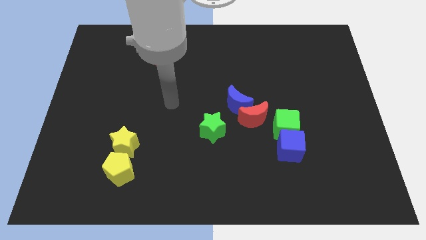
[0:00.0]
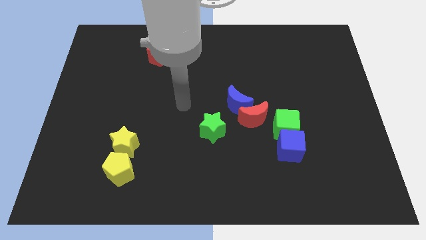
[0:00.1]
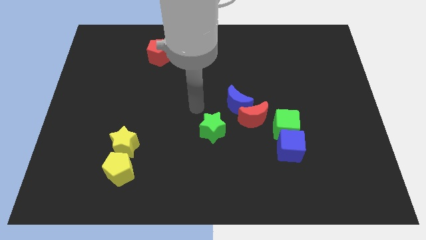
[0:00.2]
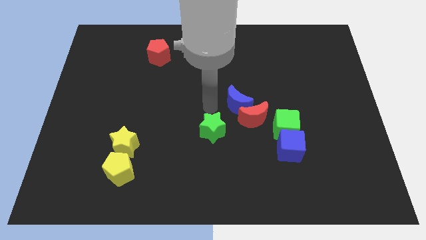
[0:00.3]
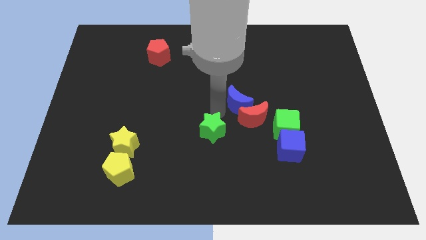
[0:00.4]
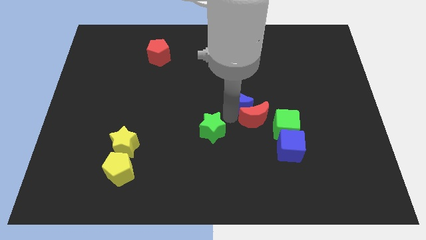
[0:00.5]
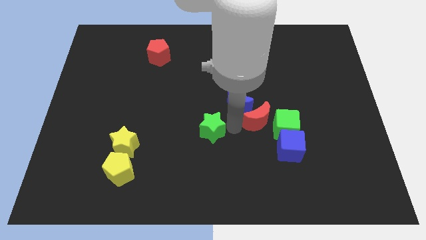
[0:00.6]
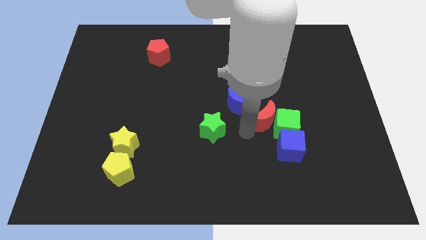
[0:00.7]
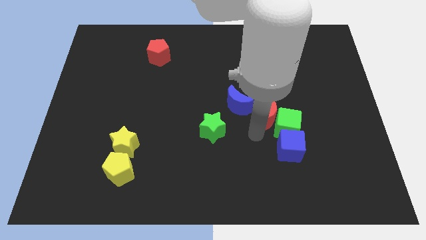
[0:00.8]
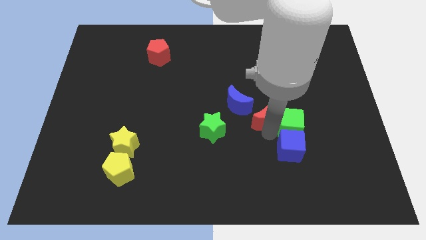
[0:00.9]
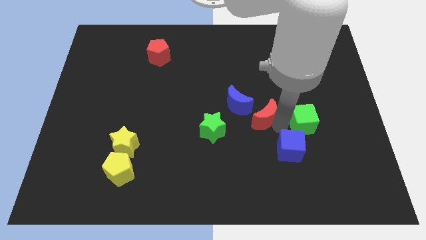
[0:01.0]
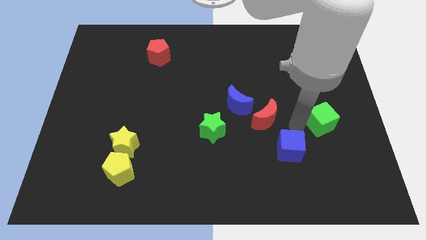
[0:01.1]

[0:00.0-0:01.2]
move the blue cube away from the green cube

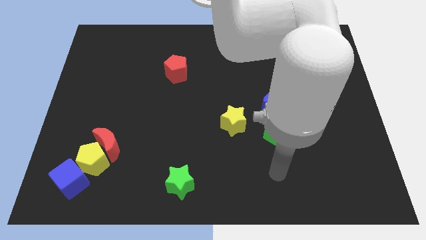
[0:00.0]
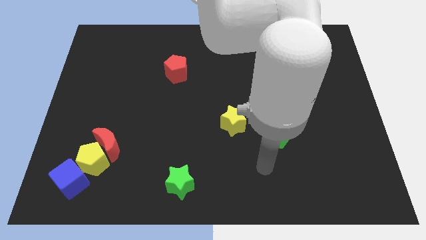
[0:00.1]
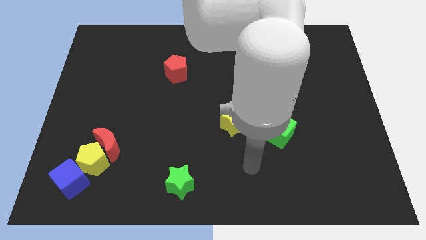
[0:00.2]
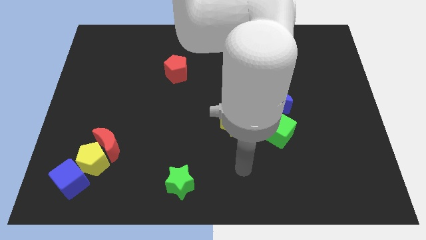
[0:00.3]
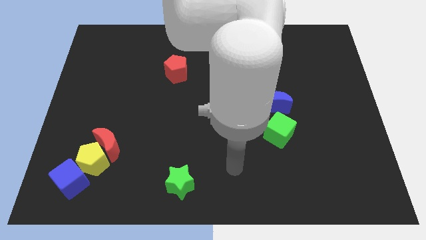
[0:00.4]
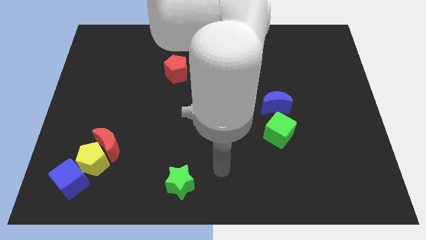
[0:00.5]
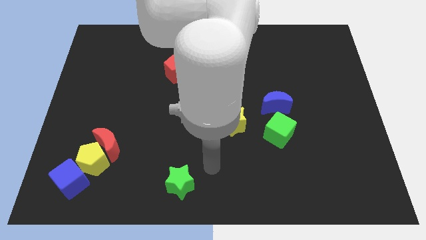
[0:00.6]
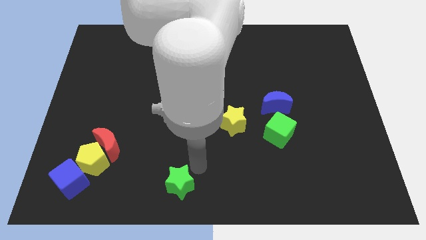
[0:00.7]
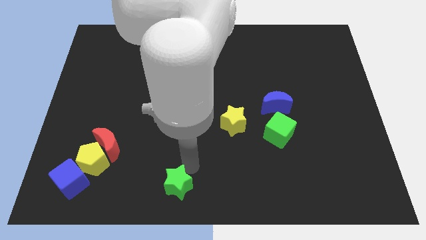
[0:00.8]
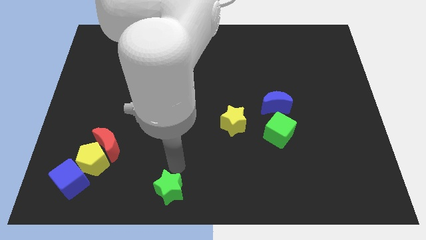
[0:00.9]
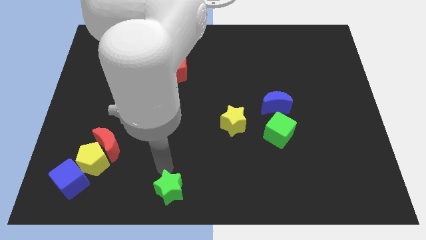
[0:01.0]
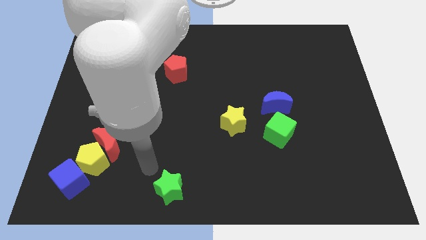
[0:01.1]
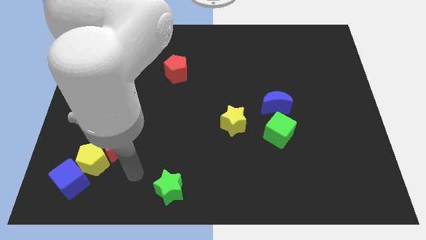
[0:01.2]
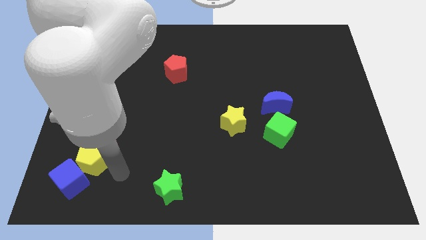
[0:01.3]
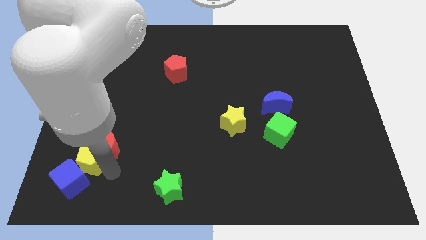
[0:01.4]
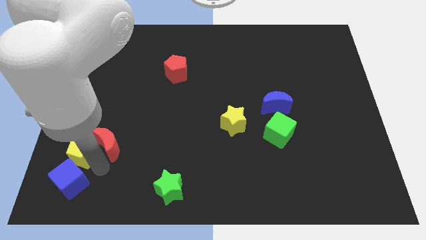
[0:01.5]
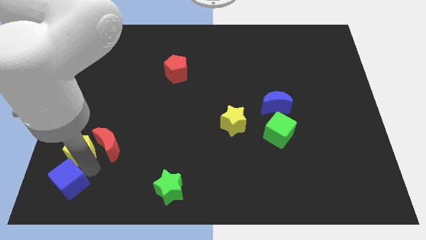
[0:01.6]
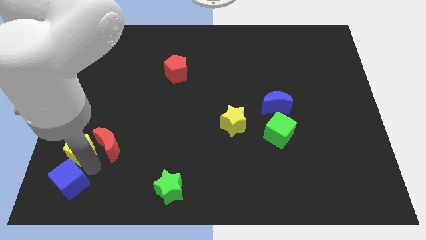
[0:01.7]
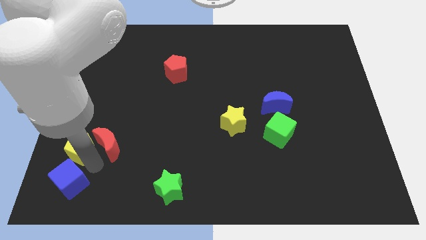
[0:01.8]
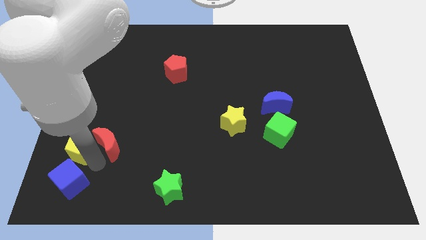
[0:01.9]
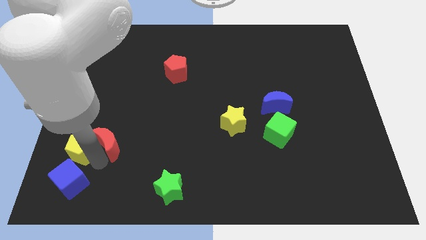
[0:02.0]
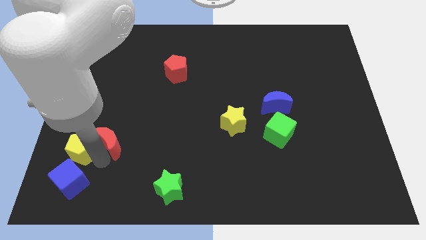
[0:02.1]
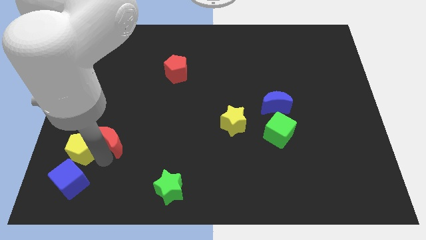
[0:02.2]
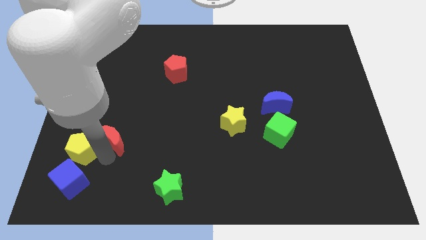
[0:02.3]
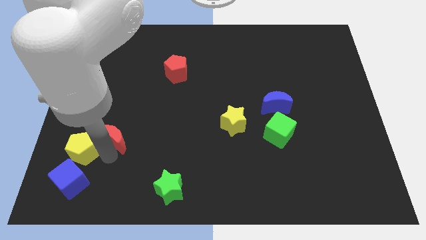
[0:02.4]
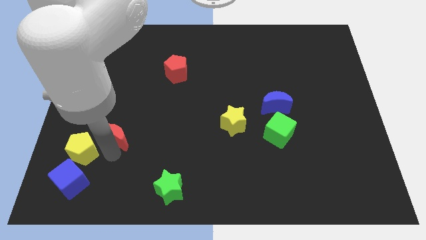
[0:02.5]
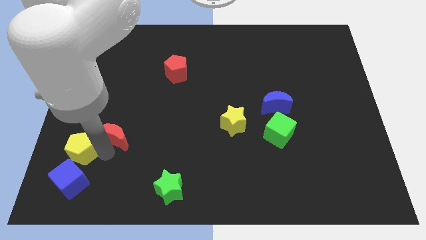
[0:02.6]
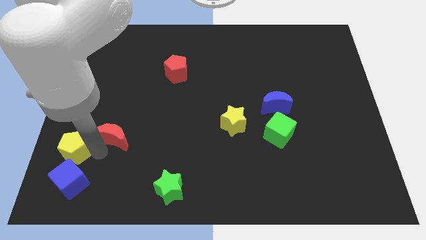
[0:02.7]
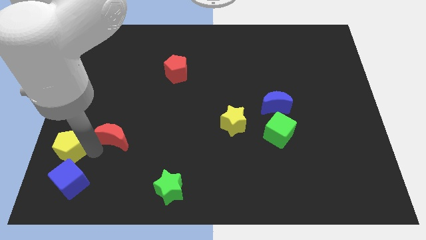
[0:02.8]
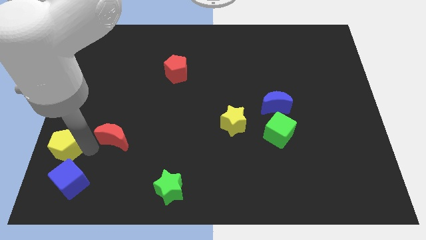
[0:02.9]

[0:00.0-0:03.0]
separate the red moon from the yellow pentagon

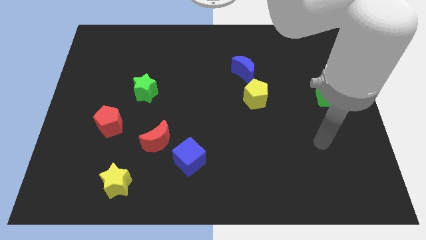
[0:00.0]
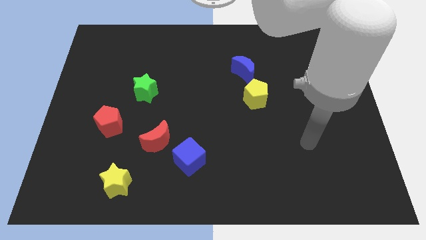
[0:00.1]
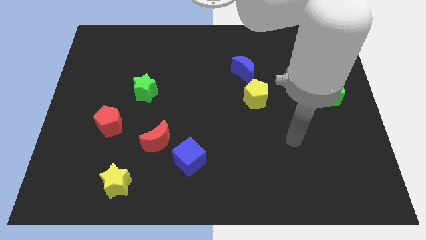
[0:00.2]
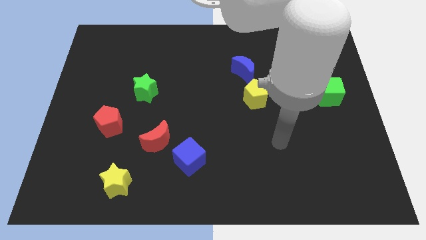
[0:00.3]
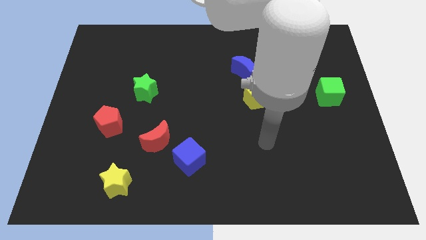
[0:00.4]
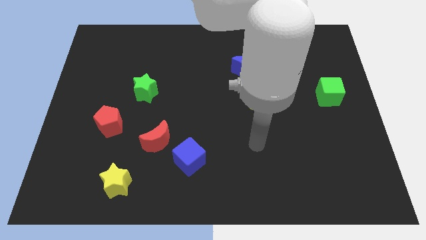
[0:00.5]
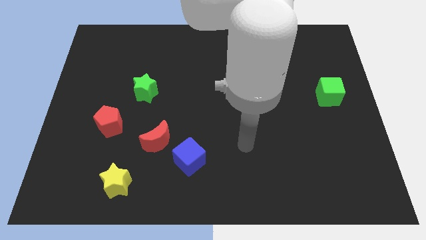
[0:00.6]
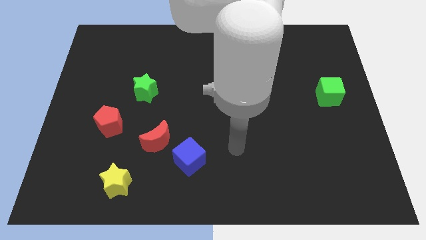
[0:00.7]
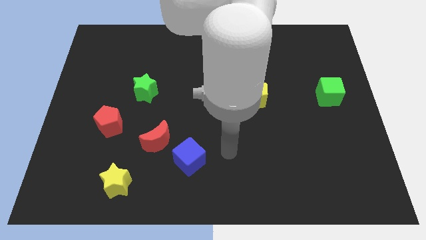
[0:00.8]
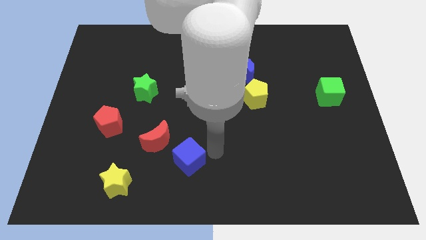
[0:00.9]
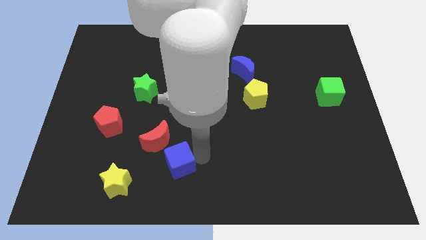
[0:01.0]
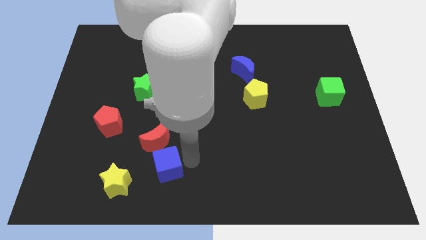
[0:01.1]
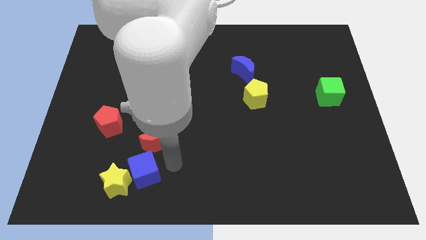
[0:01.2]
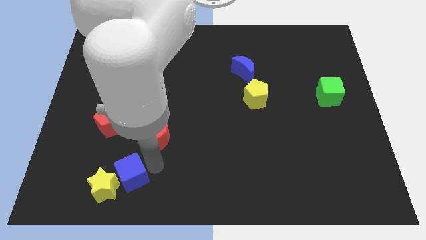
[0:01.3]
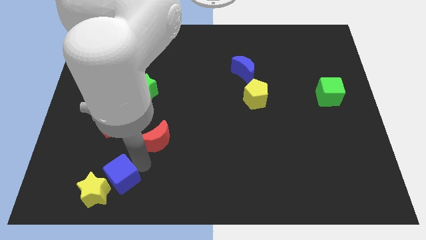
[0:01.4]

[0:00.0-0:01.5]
separate the red moon from the blue cube

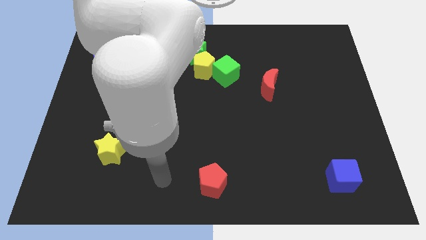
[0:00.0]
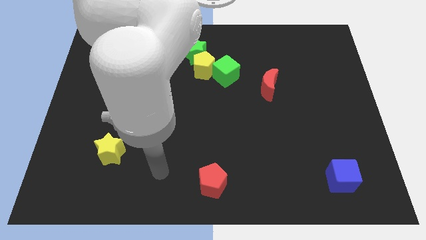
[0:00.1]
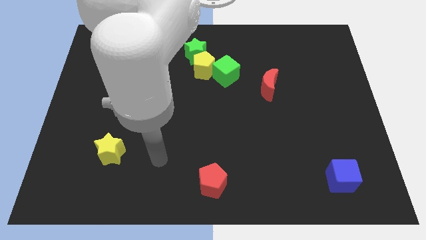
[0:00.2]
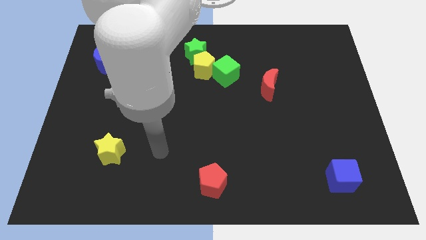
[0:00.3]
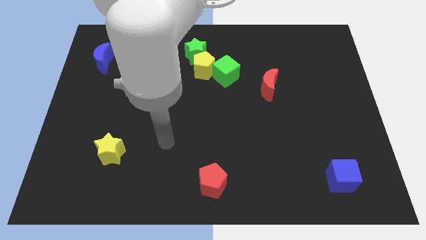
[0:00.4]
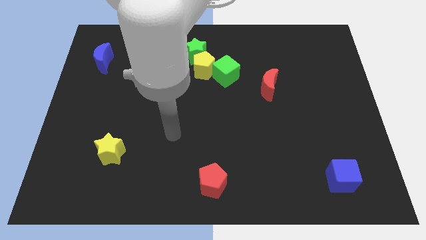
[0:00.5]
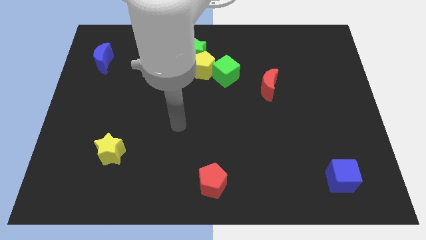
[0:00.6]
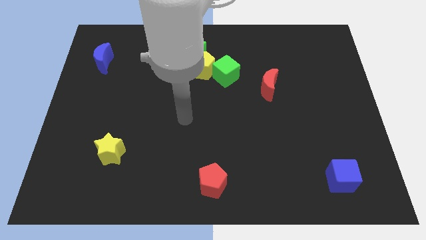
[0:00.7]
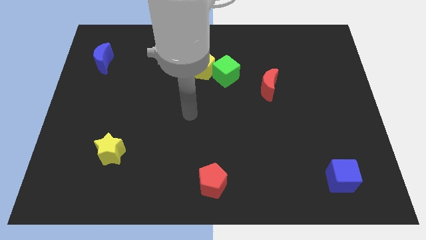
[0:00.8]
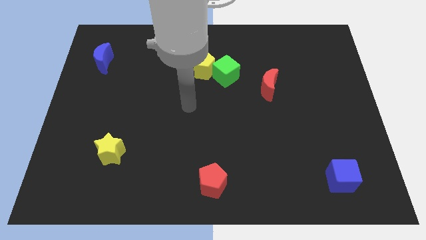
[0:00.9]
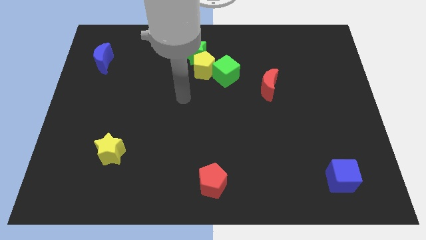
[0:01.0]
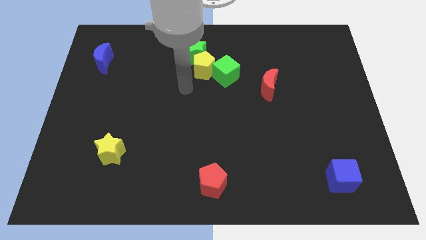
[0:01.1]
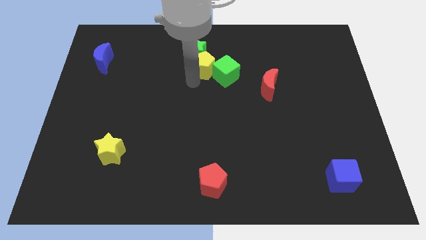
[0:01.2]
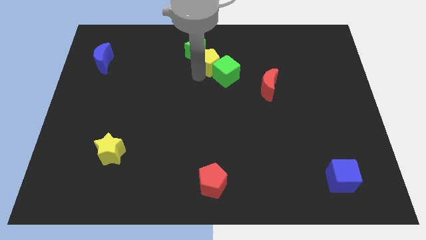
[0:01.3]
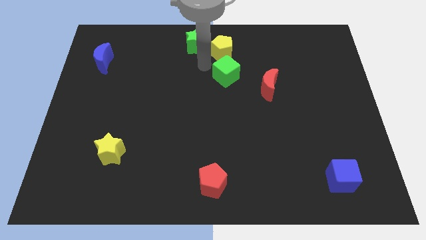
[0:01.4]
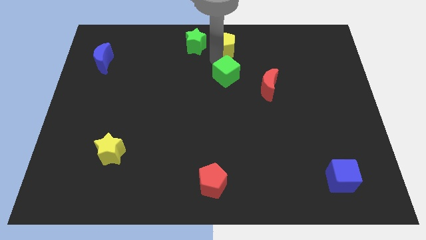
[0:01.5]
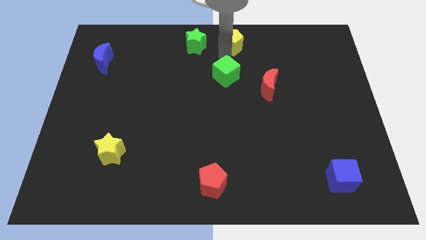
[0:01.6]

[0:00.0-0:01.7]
move the green cube away from the yellow pentagon

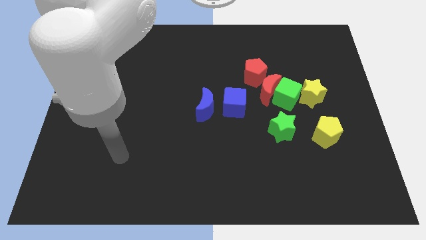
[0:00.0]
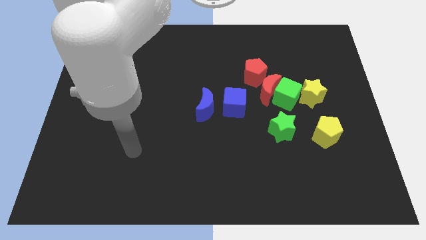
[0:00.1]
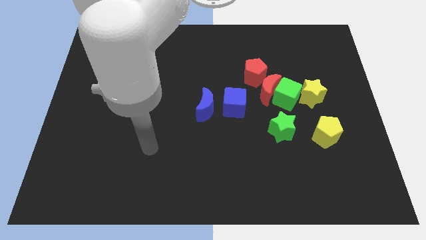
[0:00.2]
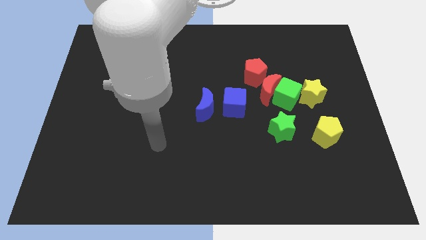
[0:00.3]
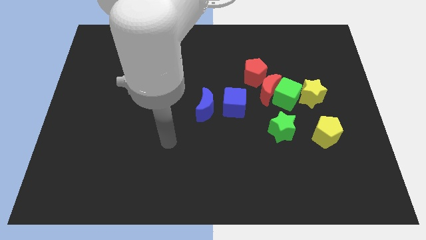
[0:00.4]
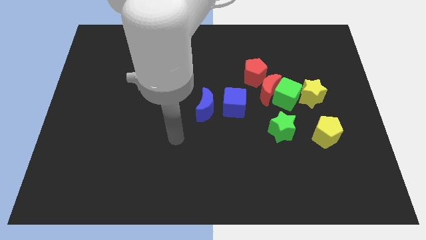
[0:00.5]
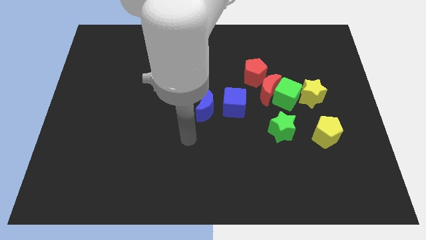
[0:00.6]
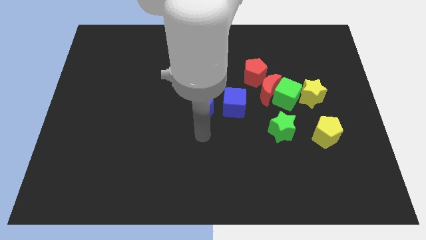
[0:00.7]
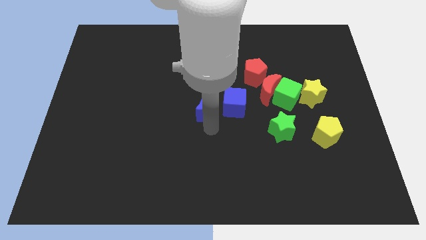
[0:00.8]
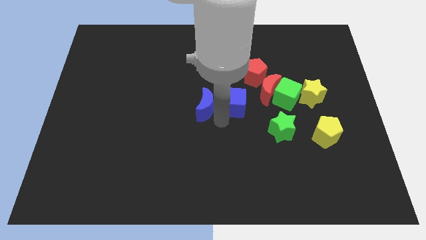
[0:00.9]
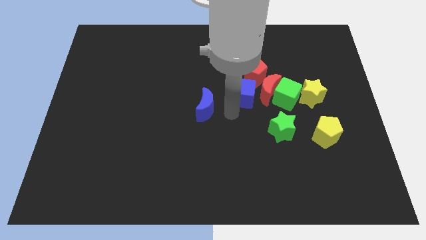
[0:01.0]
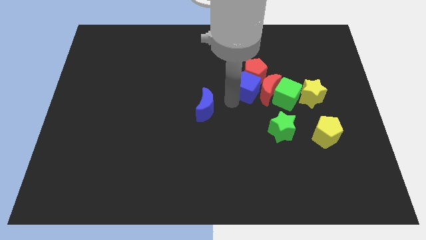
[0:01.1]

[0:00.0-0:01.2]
pull the blue moon apart from the blue cube

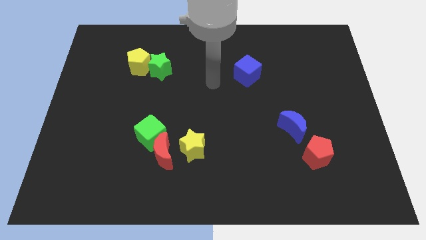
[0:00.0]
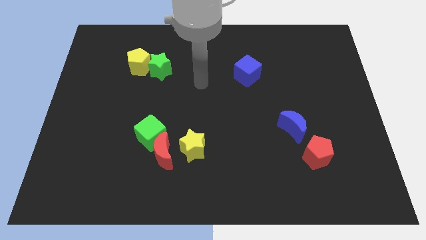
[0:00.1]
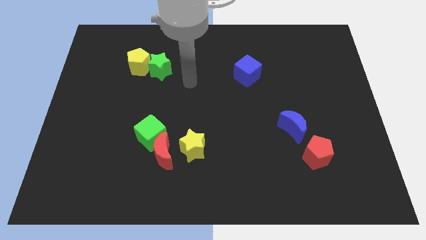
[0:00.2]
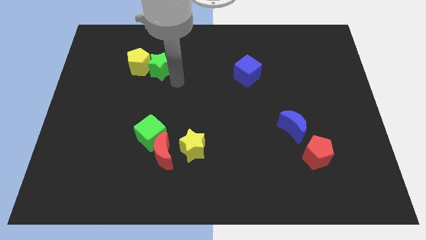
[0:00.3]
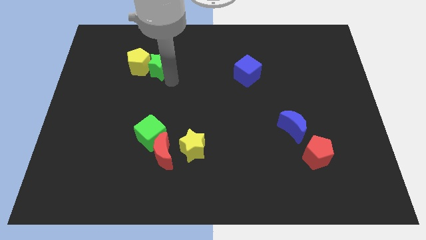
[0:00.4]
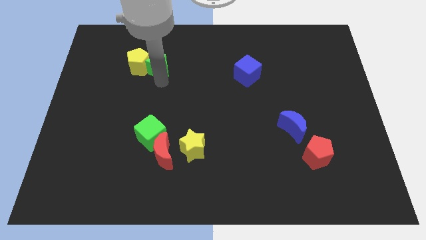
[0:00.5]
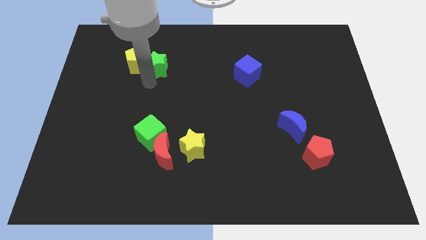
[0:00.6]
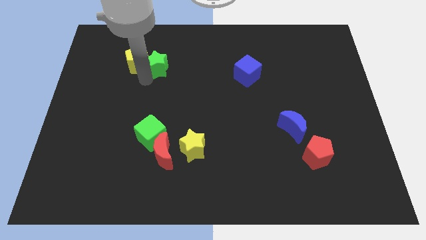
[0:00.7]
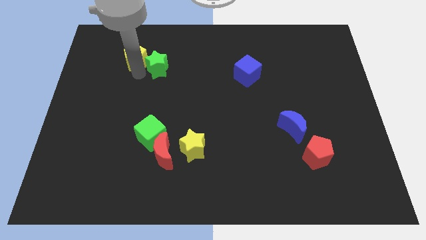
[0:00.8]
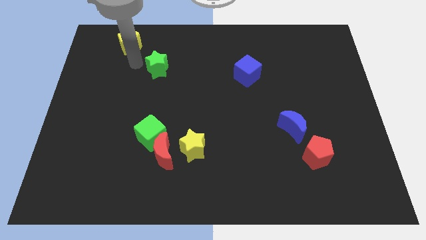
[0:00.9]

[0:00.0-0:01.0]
separate the green star from the yellow pentagon
